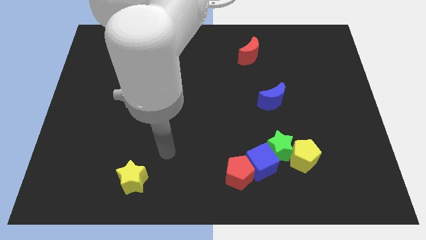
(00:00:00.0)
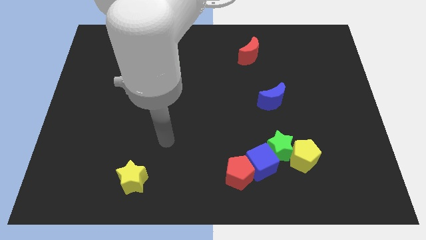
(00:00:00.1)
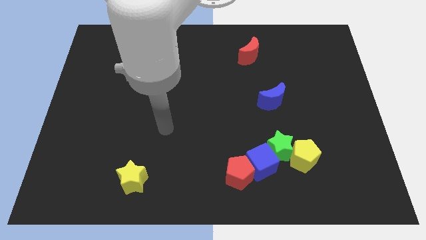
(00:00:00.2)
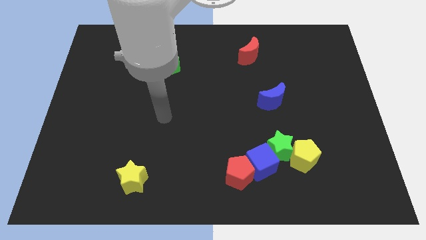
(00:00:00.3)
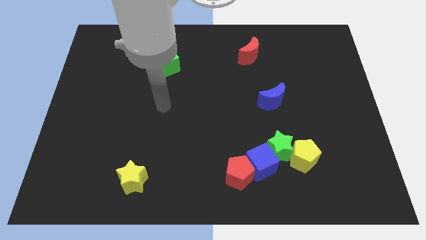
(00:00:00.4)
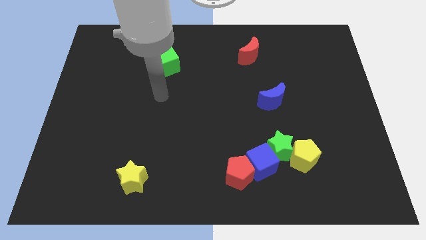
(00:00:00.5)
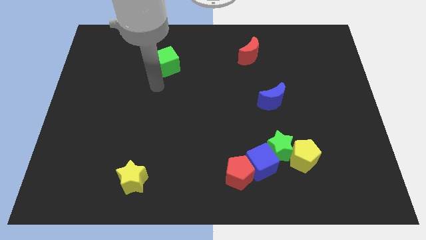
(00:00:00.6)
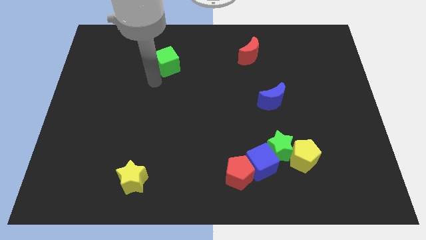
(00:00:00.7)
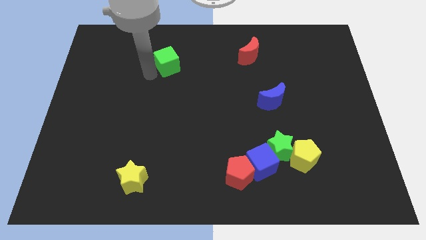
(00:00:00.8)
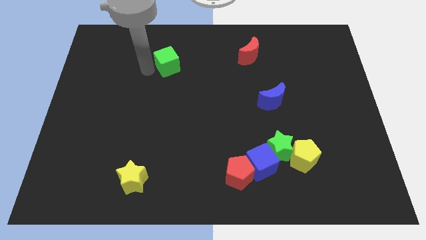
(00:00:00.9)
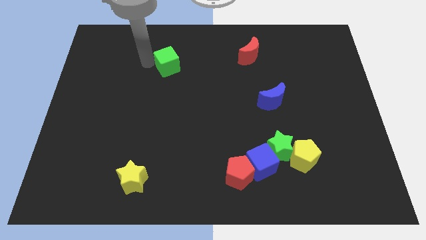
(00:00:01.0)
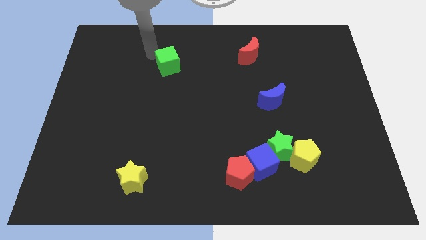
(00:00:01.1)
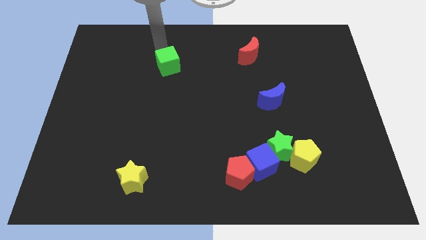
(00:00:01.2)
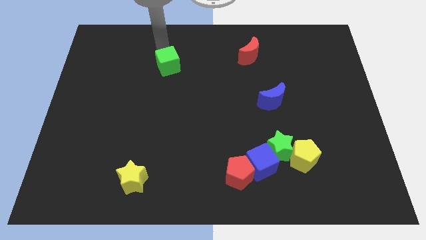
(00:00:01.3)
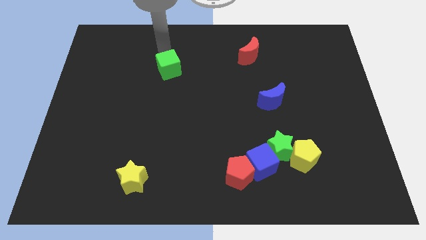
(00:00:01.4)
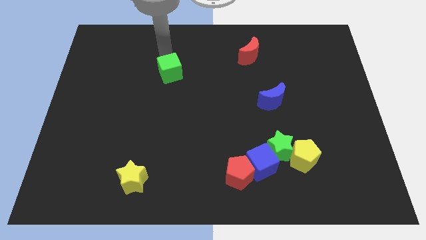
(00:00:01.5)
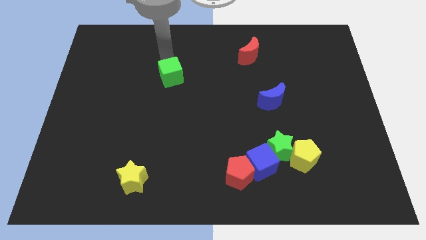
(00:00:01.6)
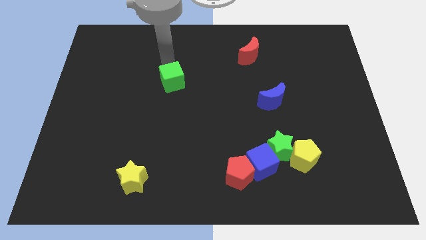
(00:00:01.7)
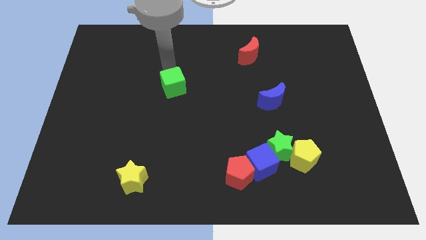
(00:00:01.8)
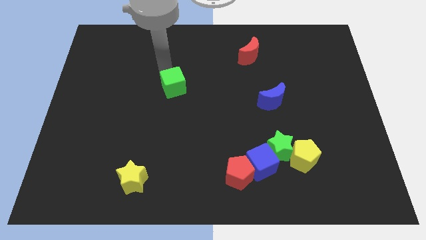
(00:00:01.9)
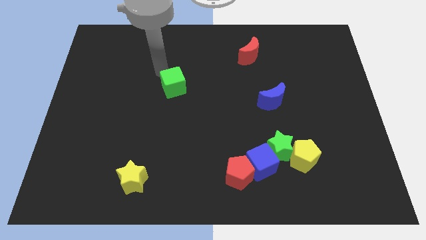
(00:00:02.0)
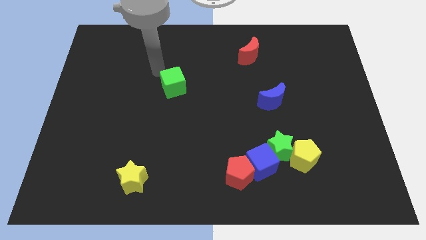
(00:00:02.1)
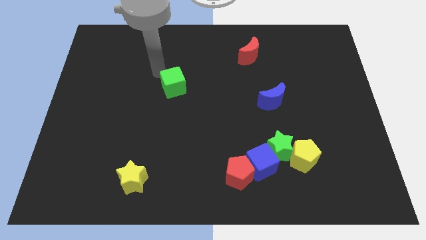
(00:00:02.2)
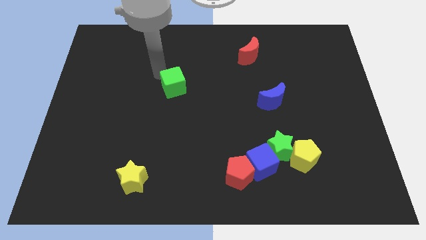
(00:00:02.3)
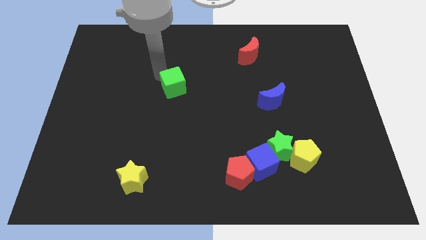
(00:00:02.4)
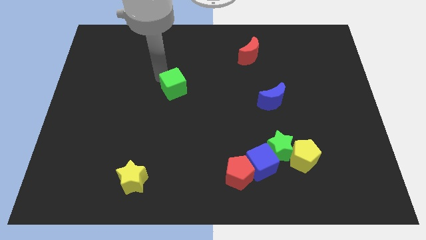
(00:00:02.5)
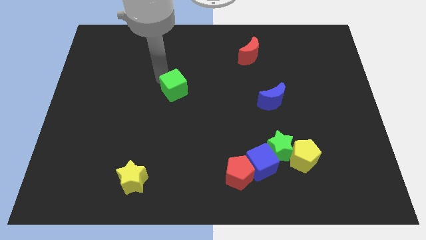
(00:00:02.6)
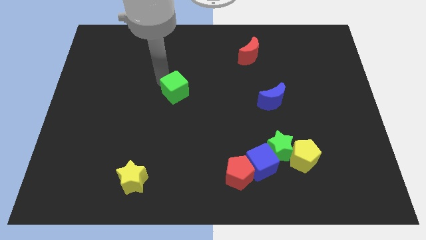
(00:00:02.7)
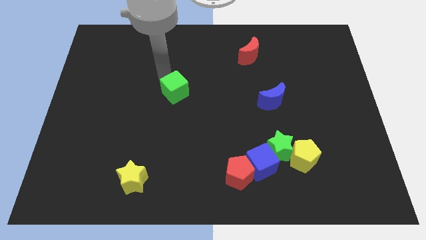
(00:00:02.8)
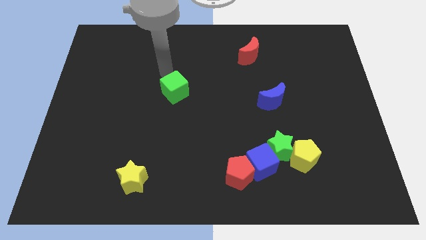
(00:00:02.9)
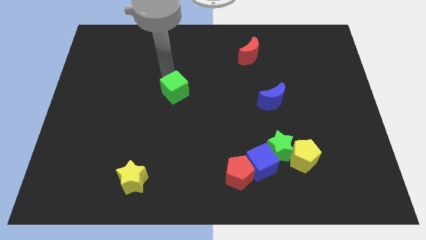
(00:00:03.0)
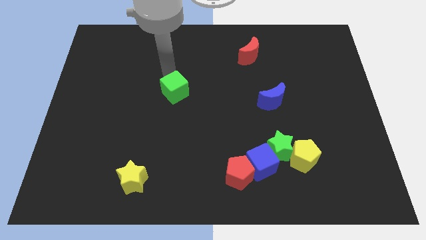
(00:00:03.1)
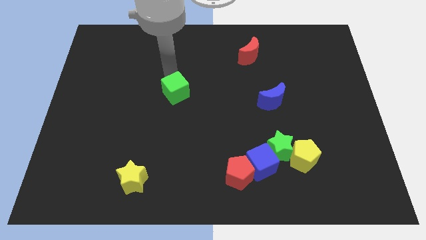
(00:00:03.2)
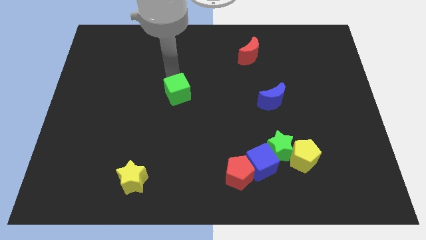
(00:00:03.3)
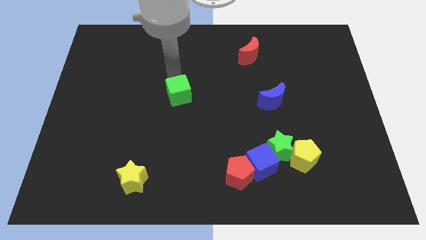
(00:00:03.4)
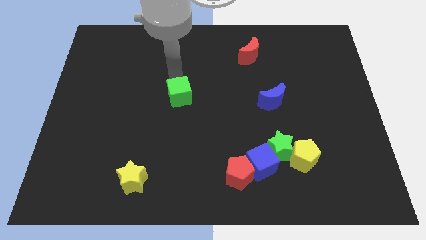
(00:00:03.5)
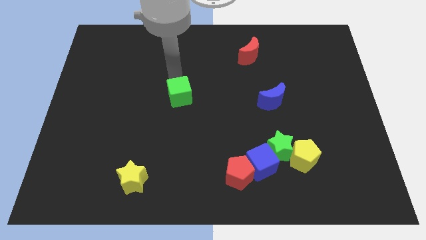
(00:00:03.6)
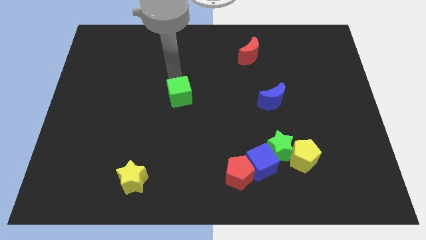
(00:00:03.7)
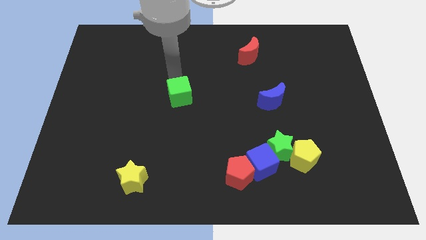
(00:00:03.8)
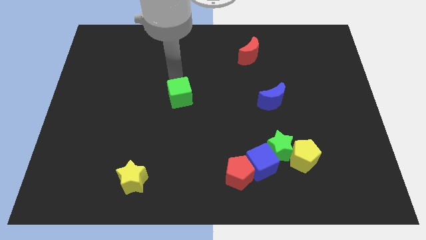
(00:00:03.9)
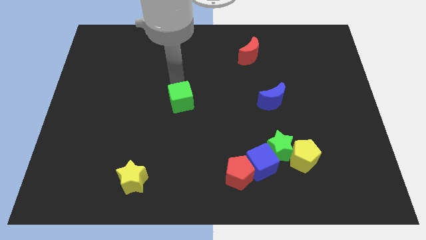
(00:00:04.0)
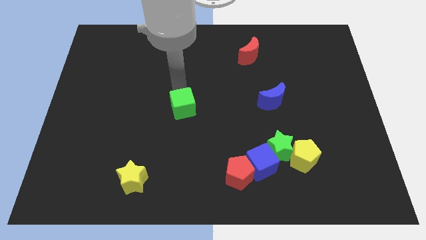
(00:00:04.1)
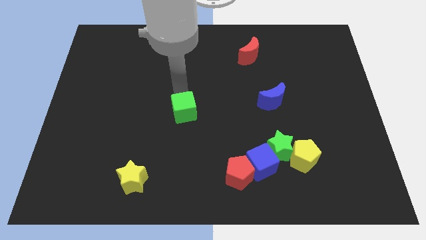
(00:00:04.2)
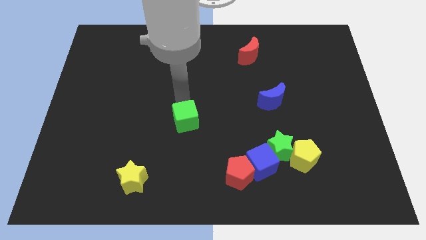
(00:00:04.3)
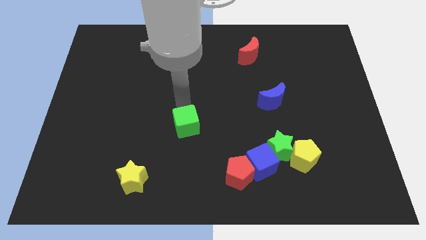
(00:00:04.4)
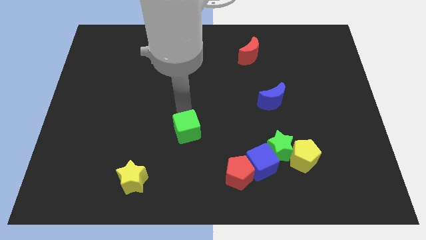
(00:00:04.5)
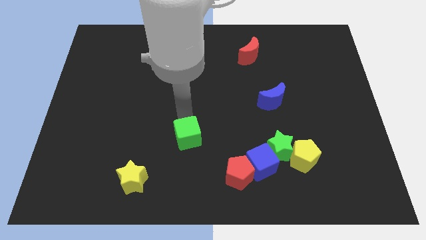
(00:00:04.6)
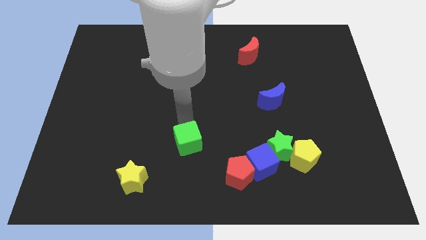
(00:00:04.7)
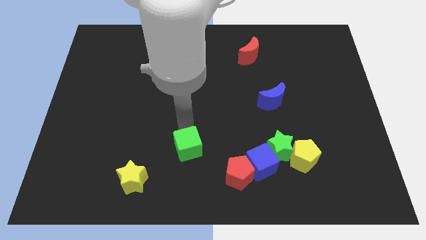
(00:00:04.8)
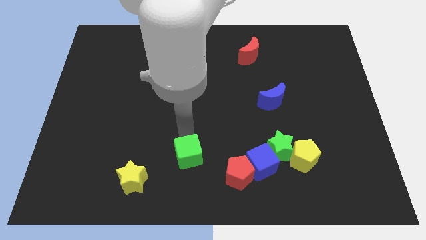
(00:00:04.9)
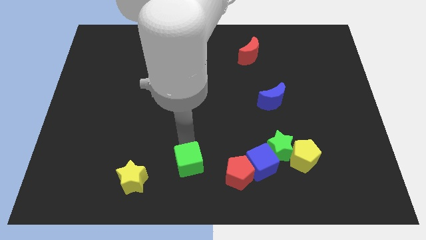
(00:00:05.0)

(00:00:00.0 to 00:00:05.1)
slide the green cube to the bottom

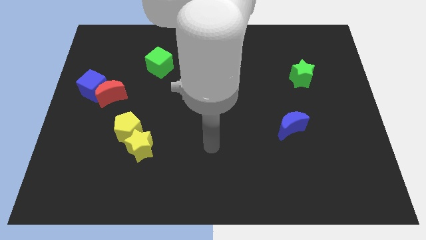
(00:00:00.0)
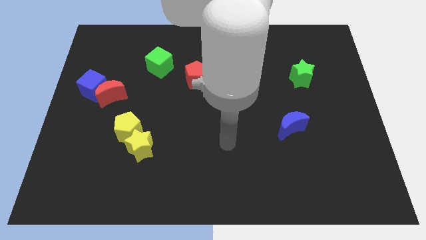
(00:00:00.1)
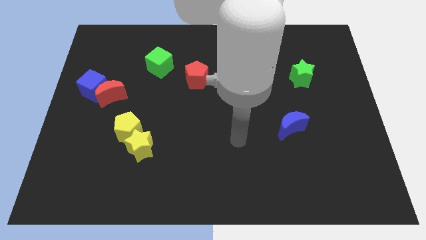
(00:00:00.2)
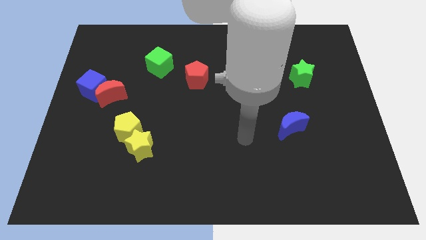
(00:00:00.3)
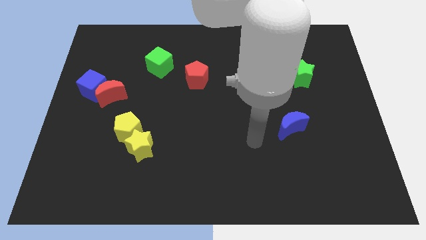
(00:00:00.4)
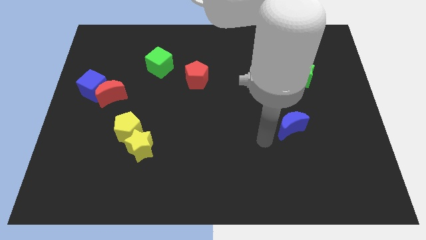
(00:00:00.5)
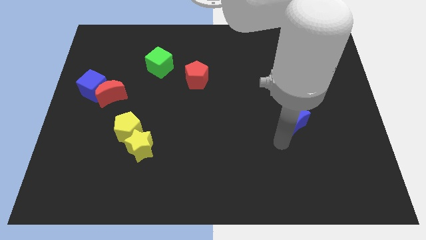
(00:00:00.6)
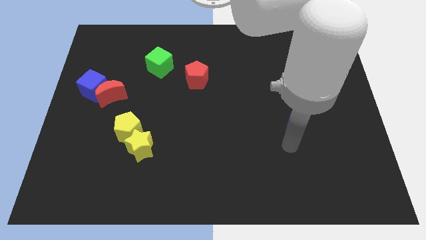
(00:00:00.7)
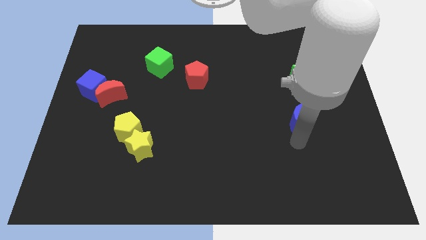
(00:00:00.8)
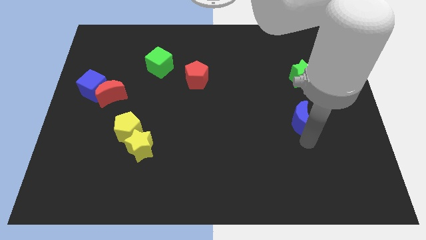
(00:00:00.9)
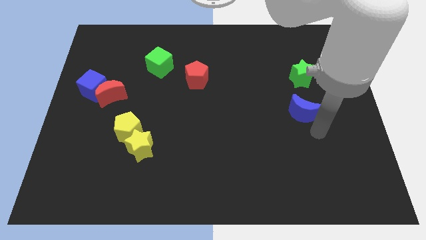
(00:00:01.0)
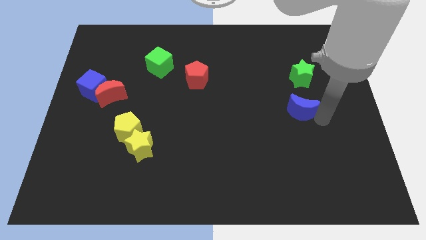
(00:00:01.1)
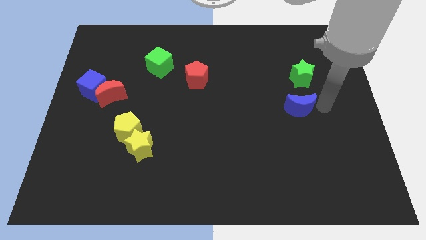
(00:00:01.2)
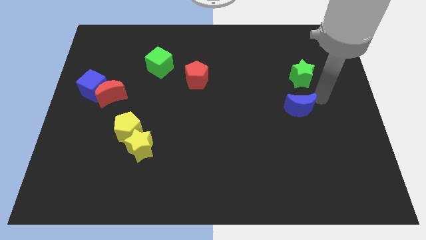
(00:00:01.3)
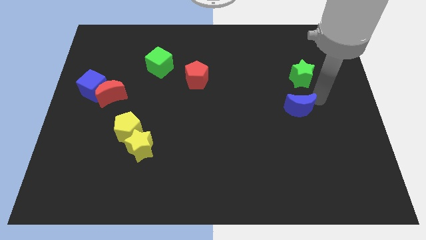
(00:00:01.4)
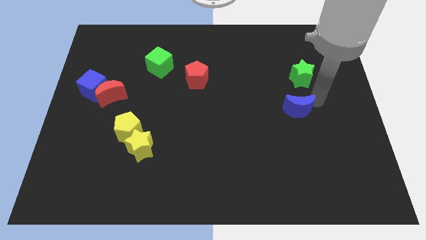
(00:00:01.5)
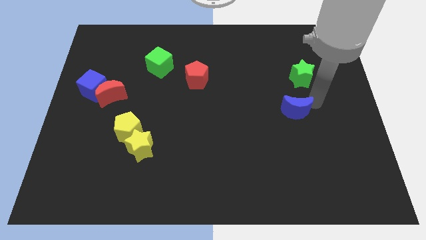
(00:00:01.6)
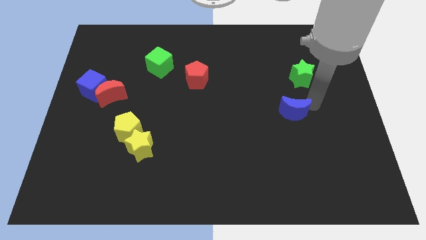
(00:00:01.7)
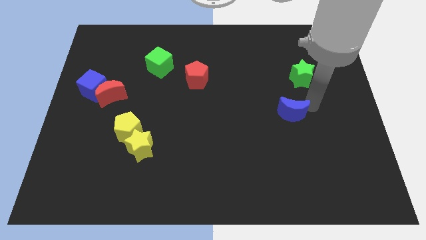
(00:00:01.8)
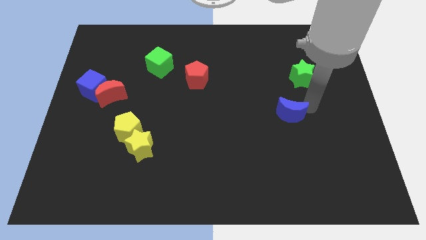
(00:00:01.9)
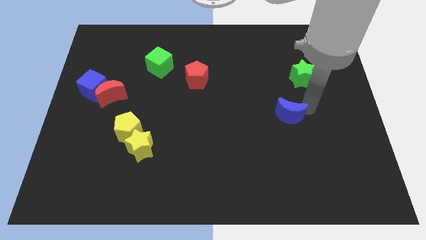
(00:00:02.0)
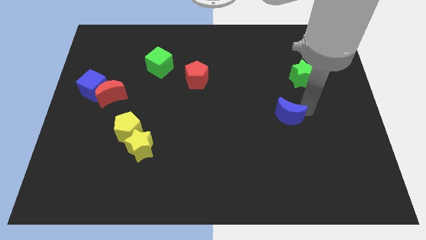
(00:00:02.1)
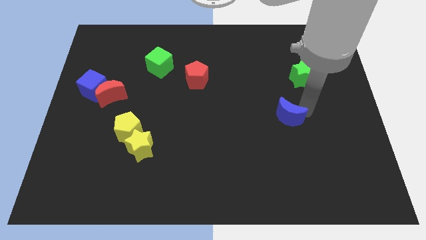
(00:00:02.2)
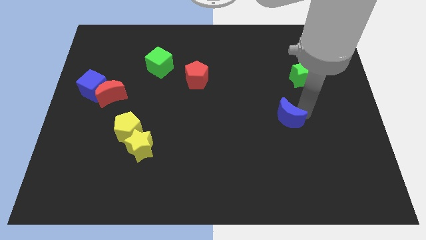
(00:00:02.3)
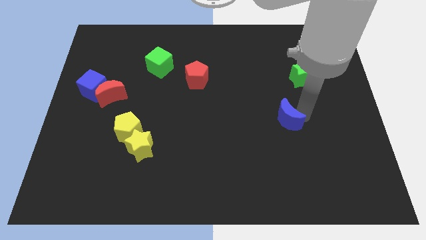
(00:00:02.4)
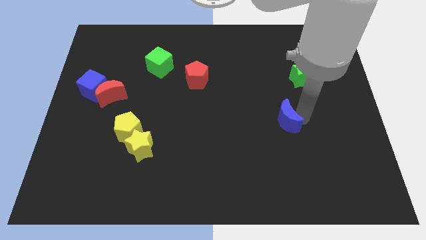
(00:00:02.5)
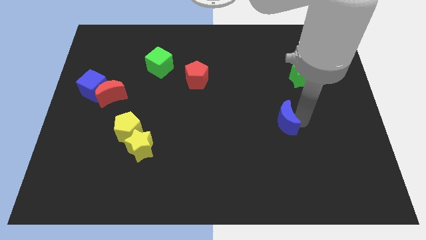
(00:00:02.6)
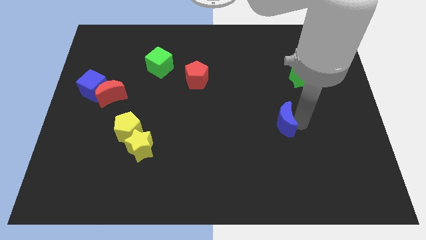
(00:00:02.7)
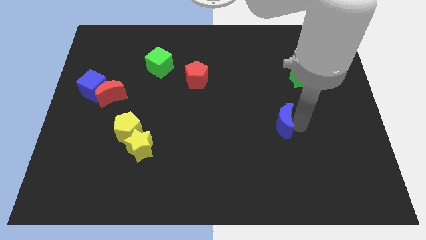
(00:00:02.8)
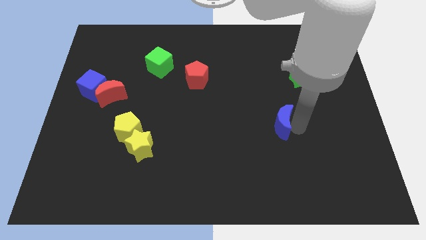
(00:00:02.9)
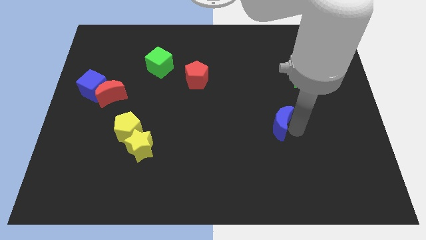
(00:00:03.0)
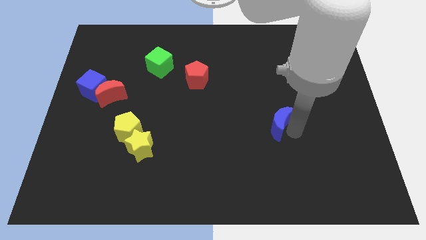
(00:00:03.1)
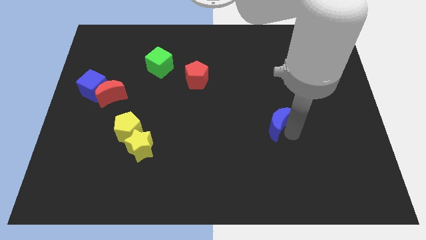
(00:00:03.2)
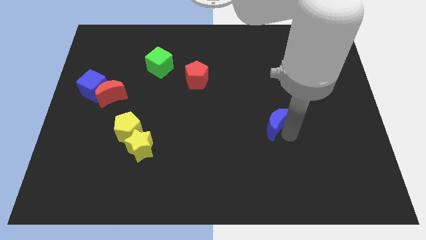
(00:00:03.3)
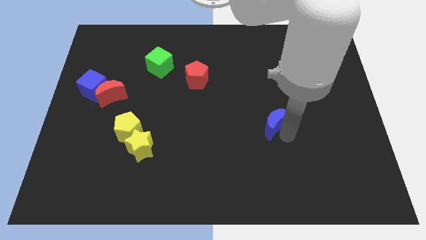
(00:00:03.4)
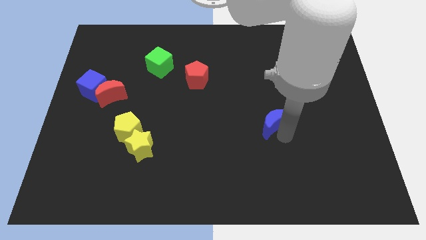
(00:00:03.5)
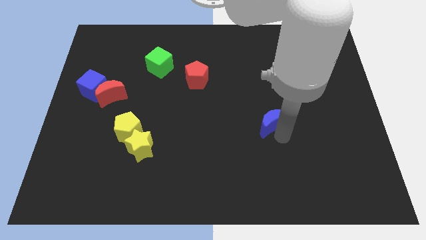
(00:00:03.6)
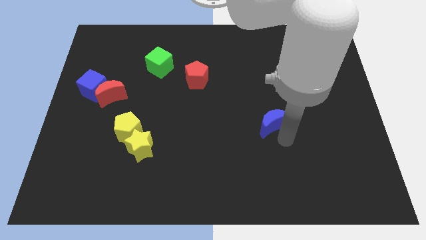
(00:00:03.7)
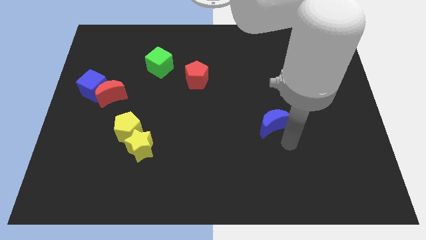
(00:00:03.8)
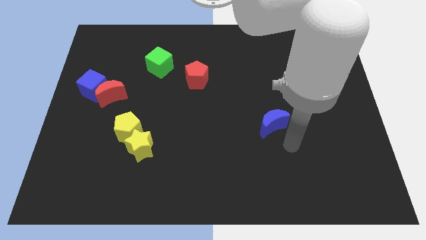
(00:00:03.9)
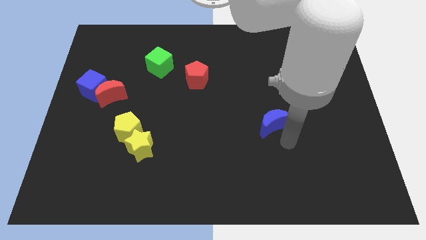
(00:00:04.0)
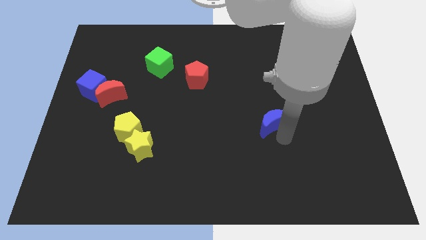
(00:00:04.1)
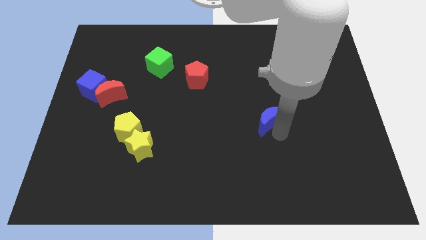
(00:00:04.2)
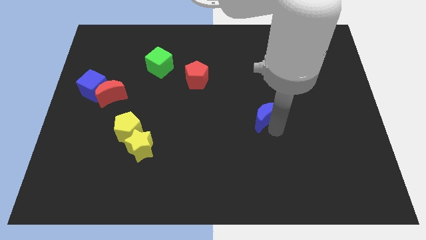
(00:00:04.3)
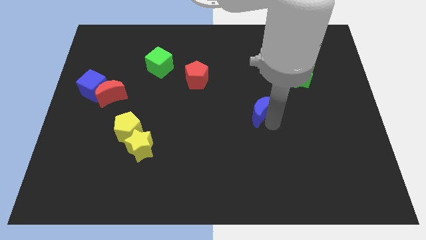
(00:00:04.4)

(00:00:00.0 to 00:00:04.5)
push the blue moon to the middle of the board
